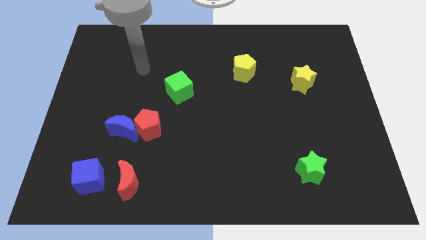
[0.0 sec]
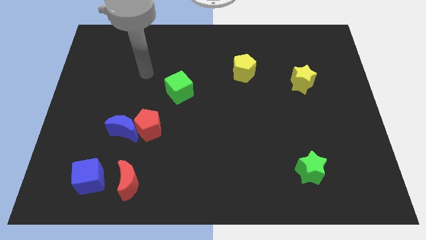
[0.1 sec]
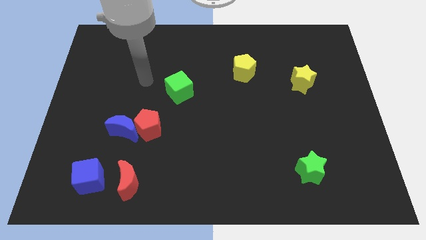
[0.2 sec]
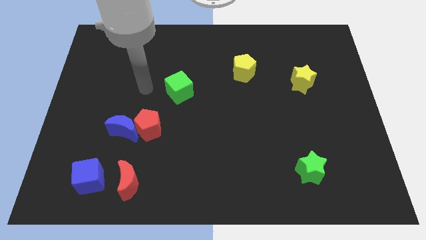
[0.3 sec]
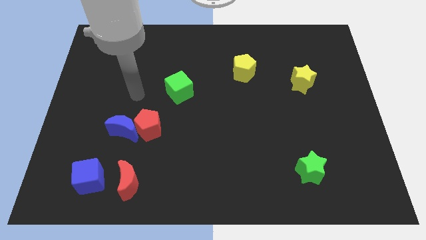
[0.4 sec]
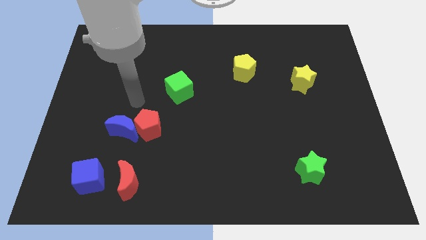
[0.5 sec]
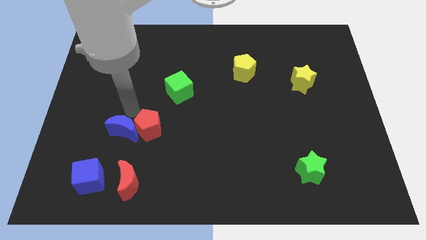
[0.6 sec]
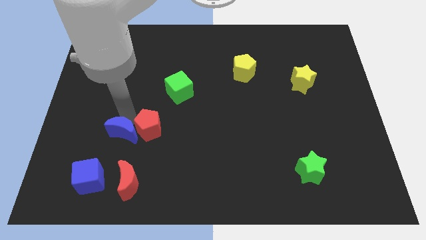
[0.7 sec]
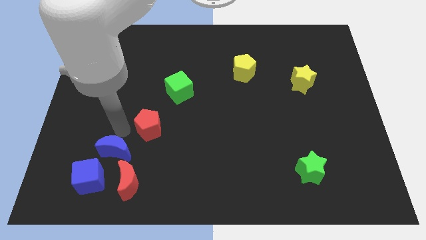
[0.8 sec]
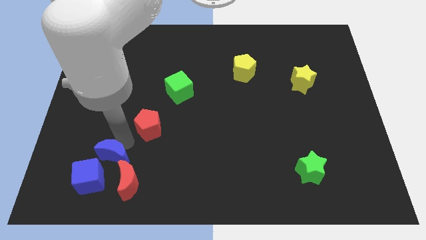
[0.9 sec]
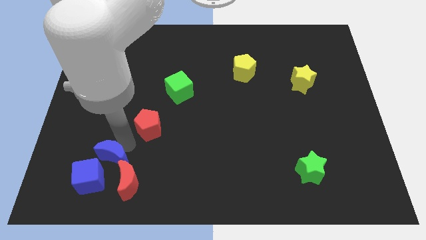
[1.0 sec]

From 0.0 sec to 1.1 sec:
pull the red pentagon apart from the blue moon

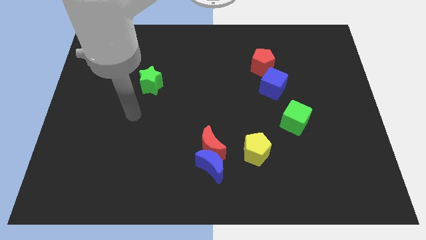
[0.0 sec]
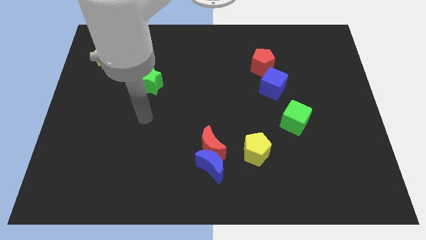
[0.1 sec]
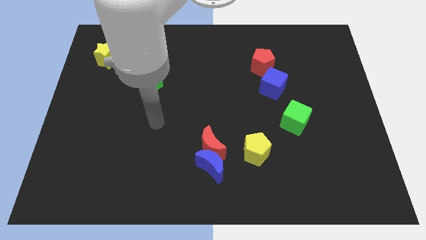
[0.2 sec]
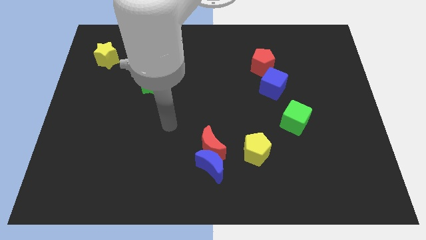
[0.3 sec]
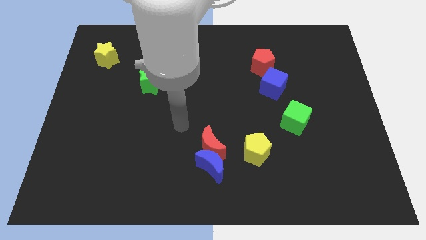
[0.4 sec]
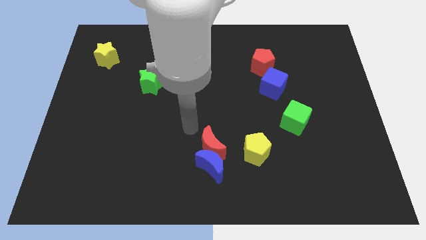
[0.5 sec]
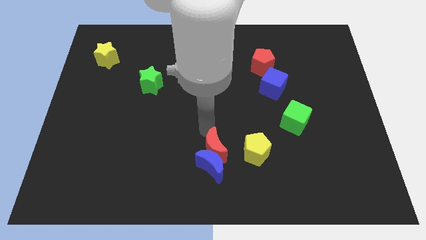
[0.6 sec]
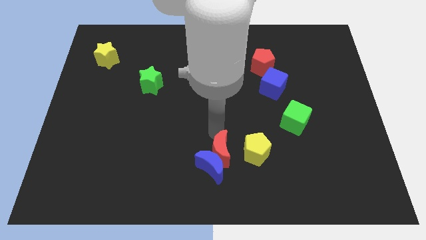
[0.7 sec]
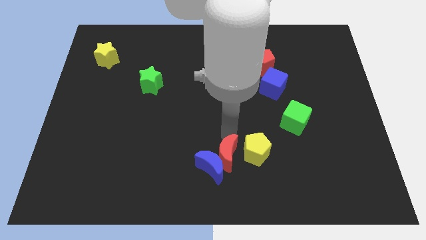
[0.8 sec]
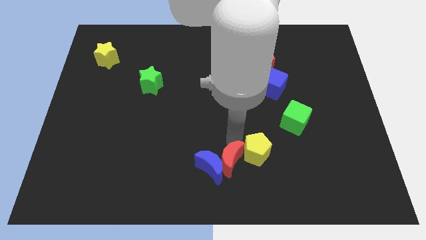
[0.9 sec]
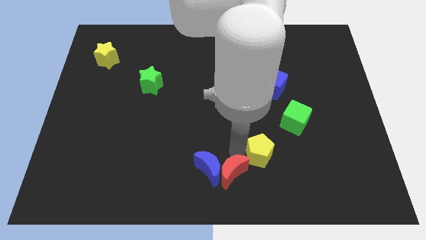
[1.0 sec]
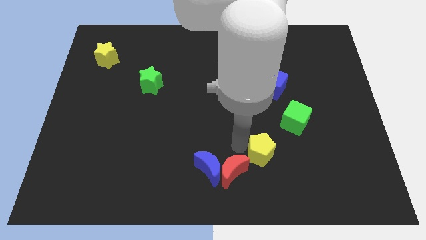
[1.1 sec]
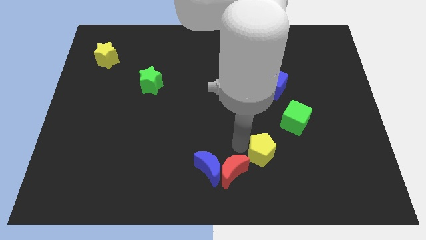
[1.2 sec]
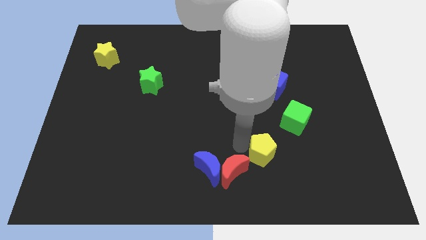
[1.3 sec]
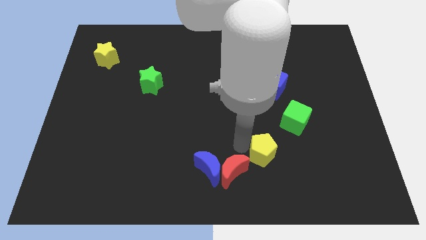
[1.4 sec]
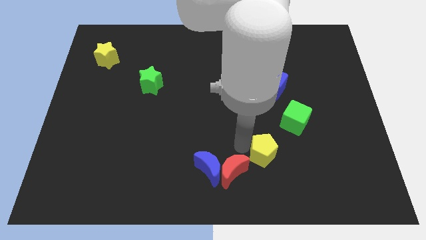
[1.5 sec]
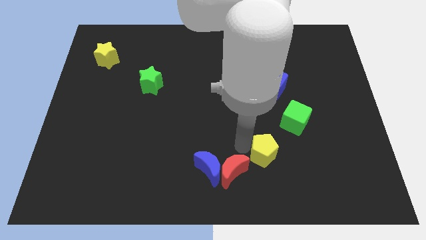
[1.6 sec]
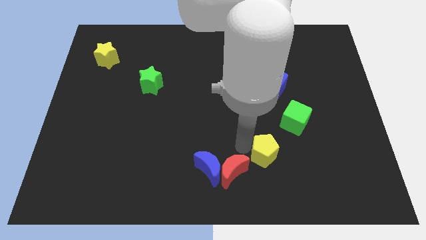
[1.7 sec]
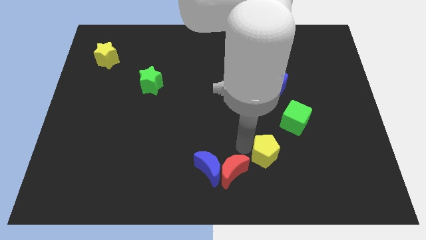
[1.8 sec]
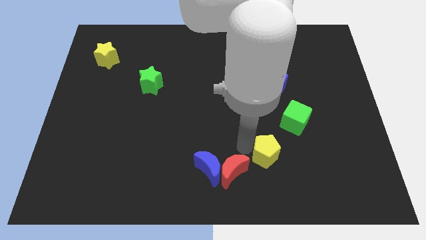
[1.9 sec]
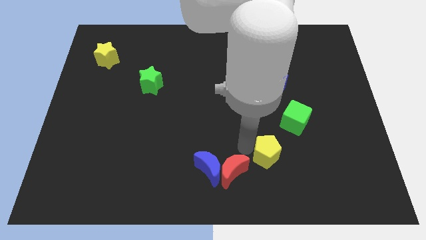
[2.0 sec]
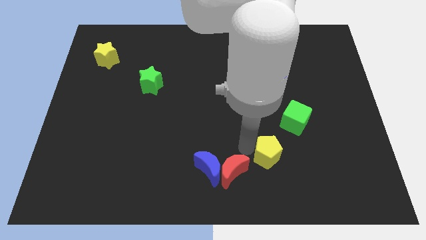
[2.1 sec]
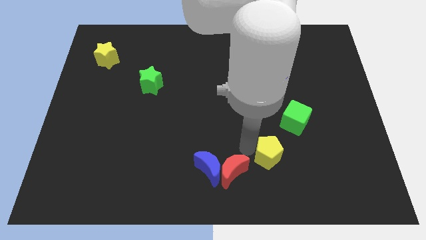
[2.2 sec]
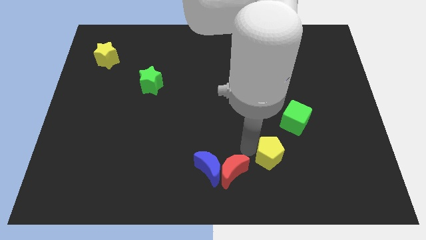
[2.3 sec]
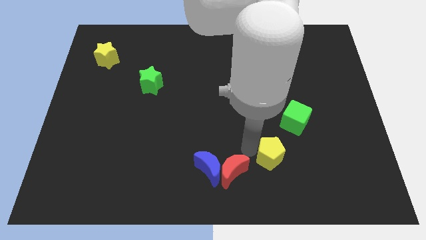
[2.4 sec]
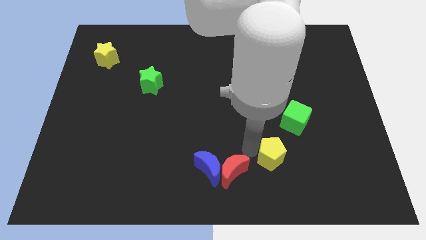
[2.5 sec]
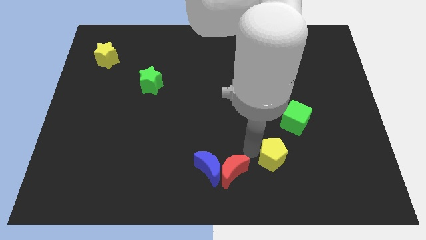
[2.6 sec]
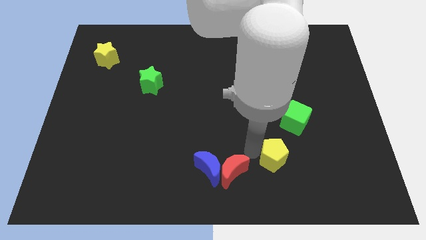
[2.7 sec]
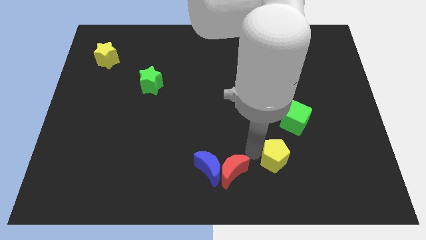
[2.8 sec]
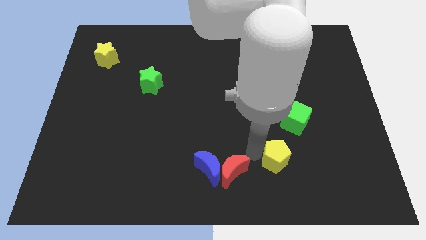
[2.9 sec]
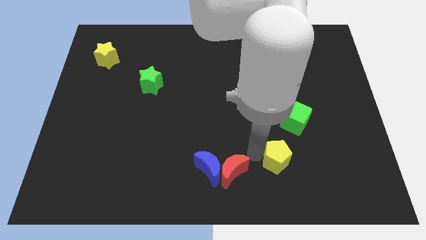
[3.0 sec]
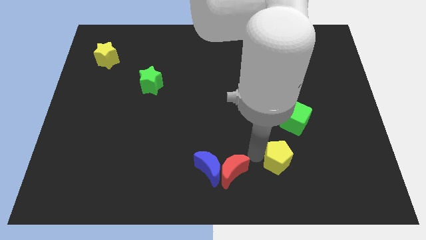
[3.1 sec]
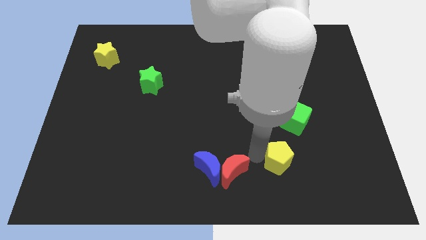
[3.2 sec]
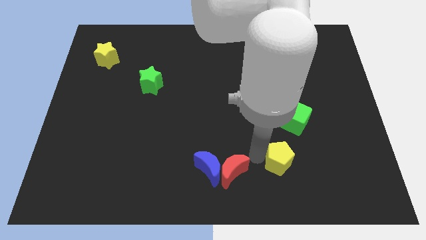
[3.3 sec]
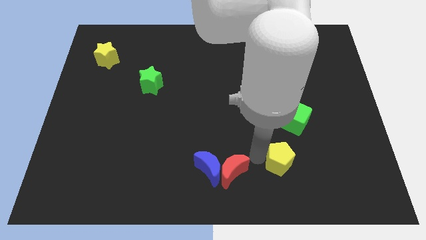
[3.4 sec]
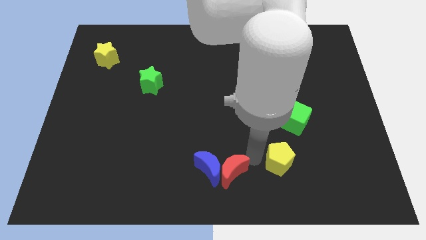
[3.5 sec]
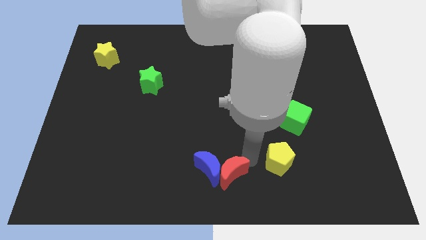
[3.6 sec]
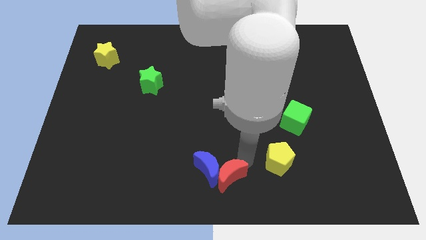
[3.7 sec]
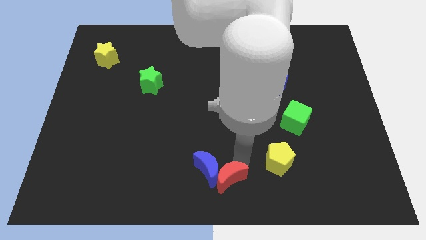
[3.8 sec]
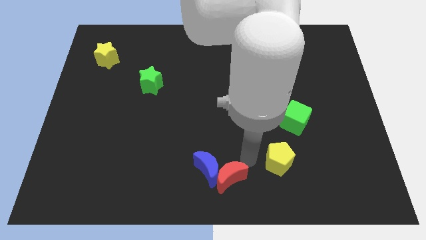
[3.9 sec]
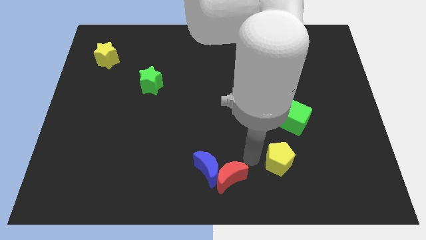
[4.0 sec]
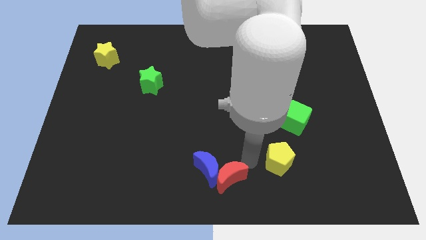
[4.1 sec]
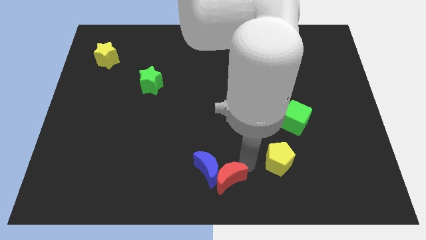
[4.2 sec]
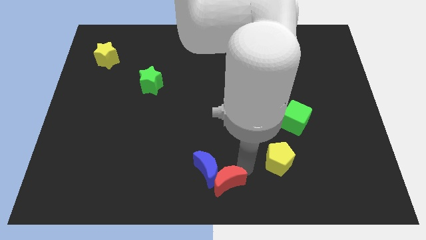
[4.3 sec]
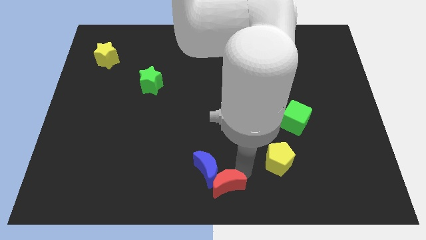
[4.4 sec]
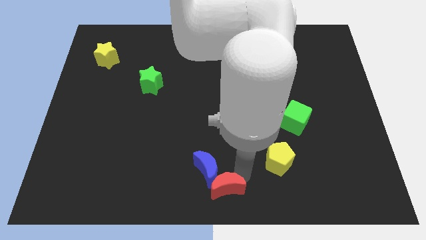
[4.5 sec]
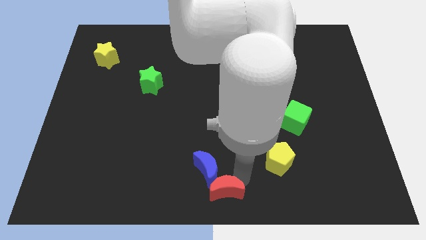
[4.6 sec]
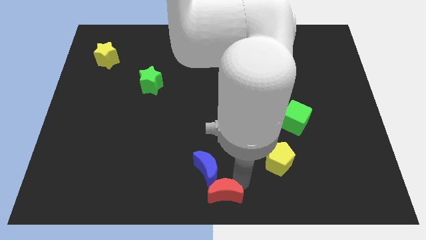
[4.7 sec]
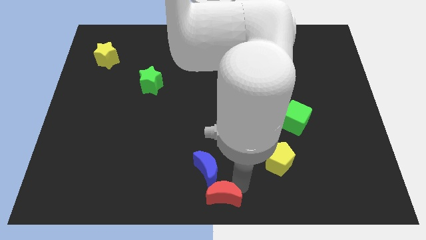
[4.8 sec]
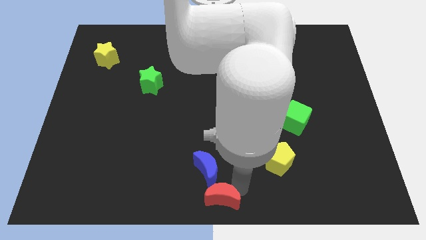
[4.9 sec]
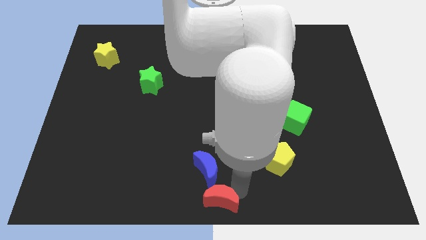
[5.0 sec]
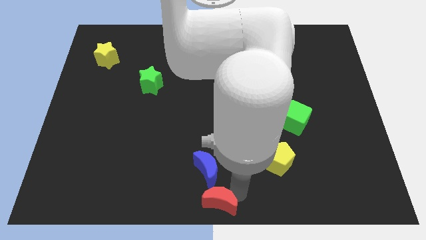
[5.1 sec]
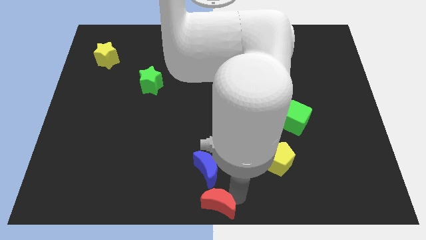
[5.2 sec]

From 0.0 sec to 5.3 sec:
pull the red moon apart from the blue moon and yellow pentagon

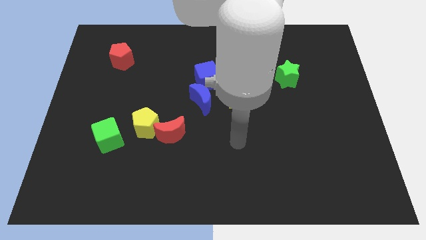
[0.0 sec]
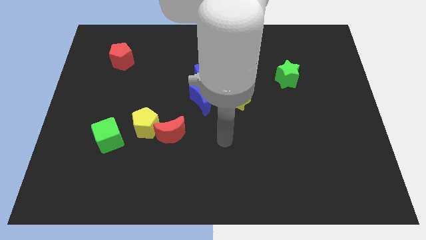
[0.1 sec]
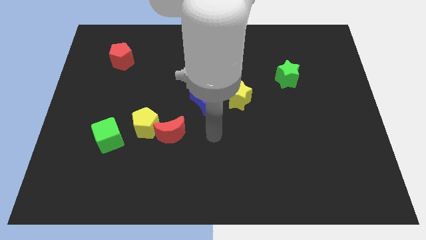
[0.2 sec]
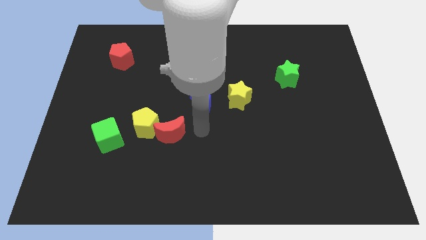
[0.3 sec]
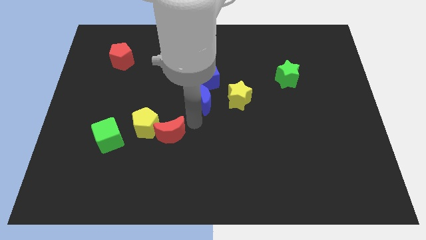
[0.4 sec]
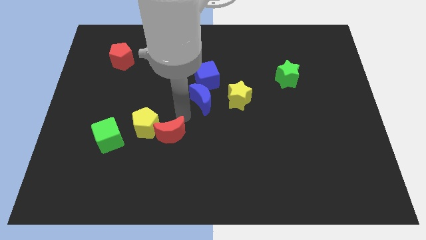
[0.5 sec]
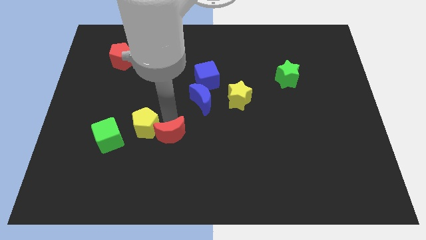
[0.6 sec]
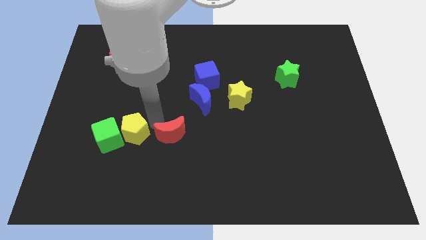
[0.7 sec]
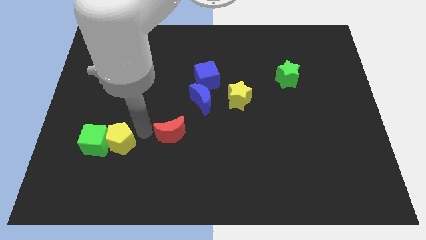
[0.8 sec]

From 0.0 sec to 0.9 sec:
pull the red moon apart from the yellow pentagon

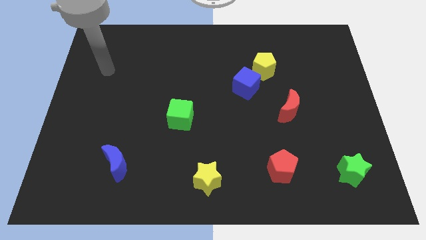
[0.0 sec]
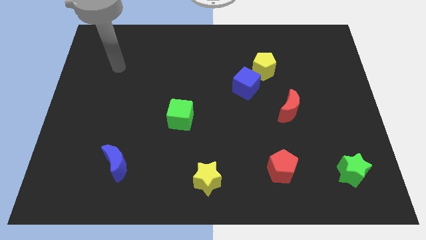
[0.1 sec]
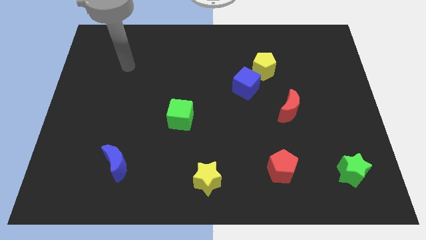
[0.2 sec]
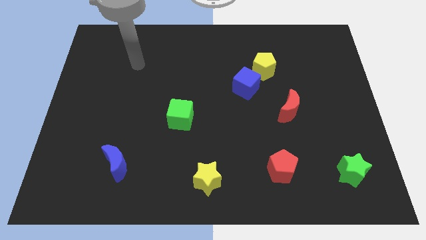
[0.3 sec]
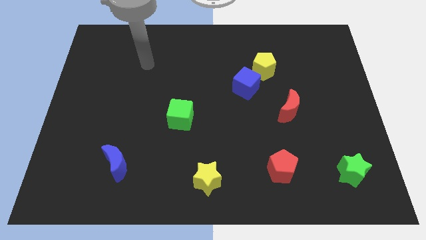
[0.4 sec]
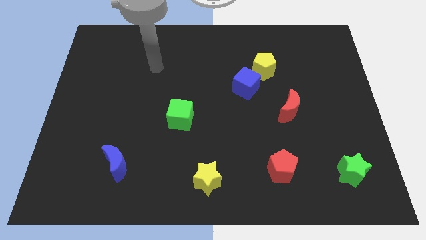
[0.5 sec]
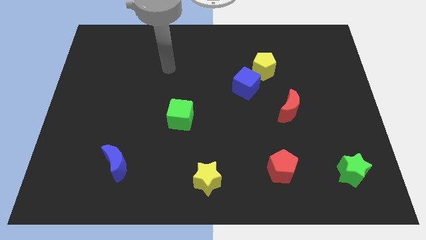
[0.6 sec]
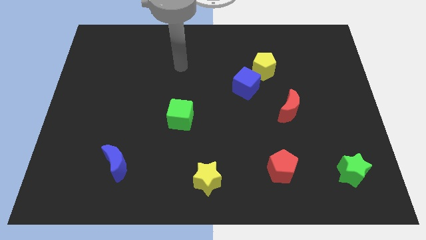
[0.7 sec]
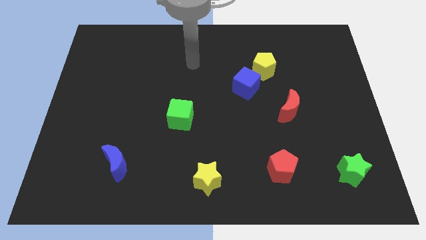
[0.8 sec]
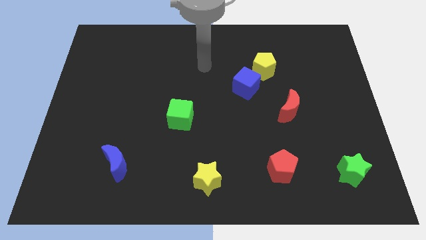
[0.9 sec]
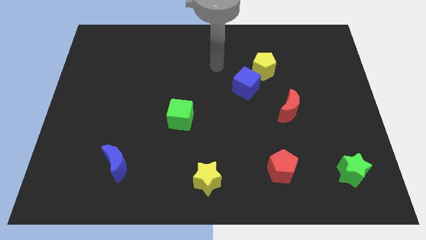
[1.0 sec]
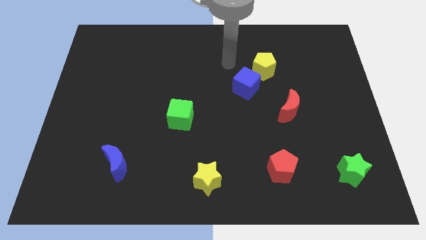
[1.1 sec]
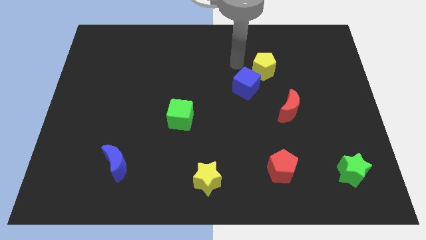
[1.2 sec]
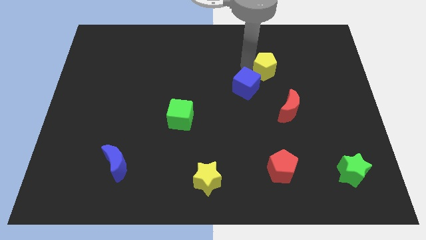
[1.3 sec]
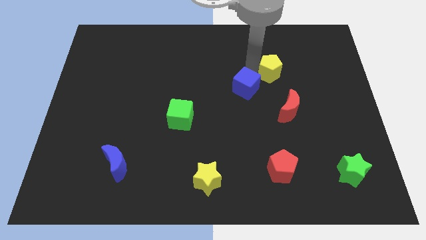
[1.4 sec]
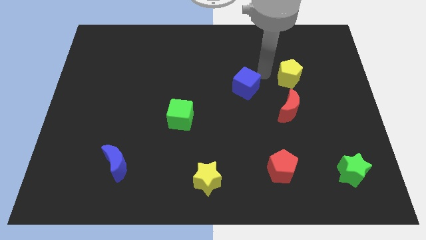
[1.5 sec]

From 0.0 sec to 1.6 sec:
move the blue cube away from the yellow pentagon

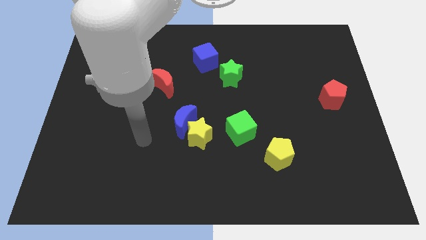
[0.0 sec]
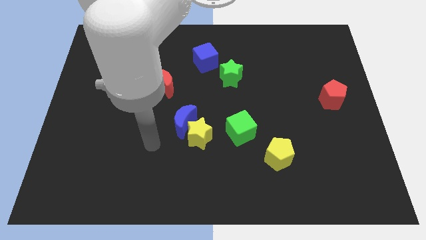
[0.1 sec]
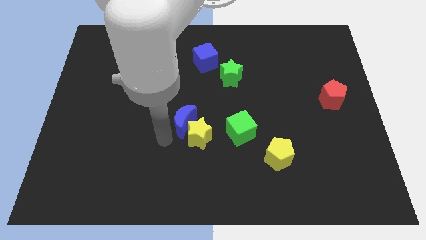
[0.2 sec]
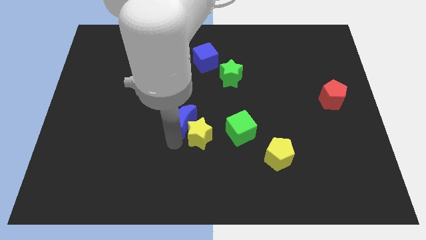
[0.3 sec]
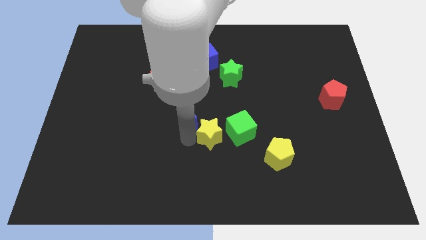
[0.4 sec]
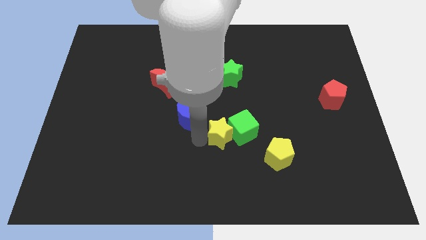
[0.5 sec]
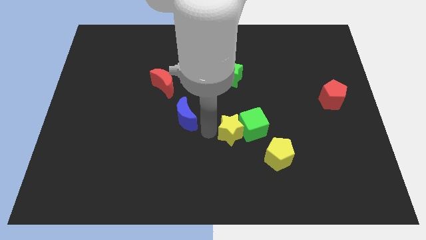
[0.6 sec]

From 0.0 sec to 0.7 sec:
separate the blue moon from the yellow star
